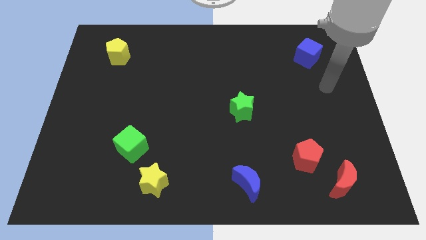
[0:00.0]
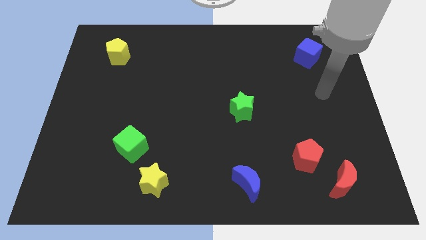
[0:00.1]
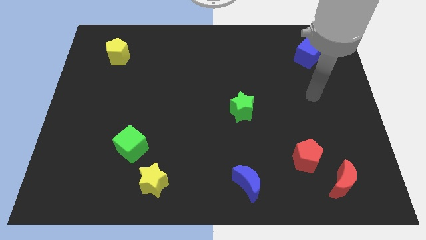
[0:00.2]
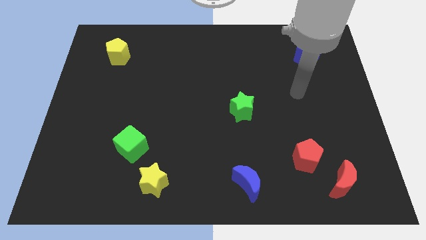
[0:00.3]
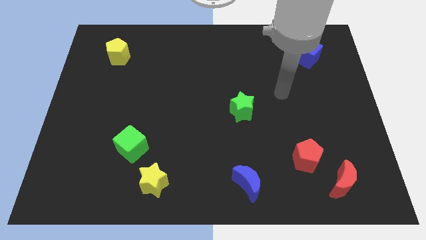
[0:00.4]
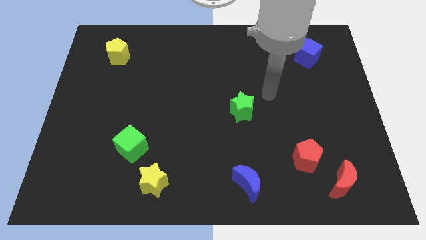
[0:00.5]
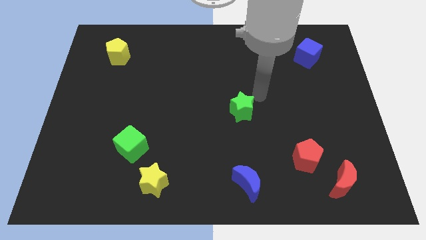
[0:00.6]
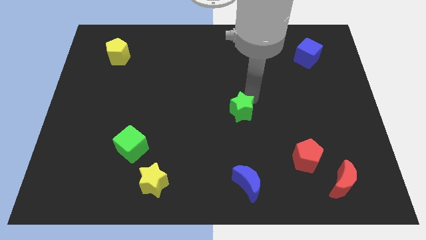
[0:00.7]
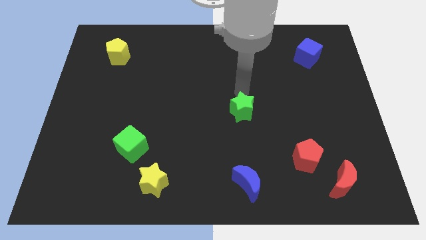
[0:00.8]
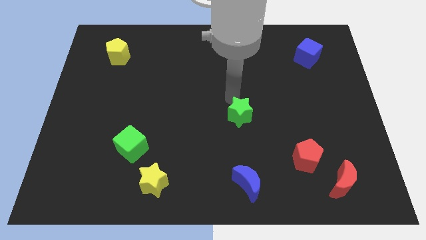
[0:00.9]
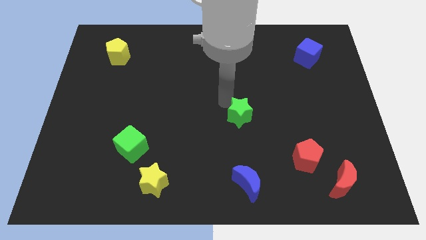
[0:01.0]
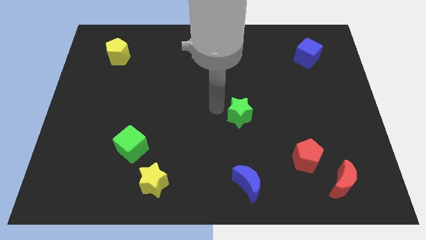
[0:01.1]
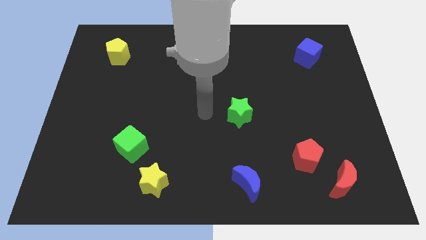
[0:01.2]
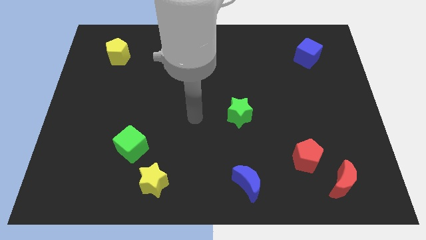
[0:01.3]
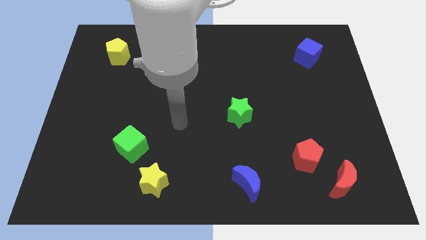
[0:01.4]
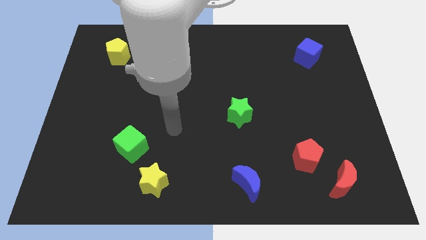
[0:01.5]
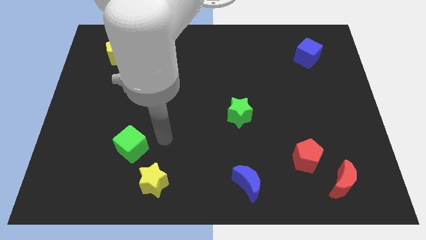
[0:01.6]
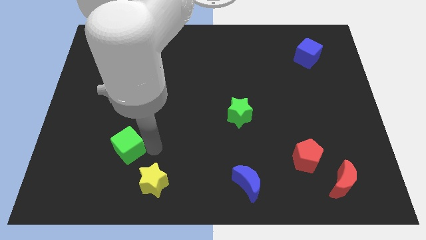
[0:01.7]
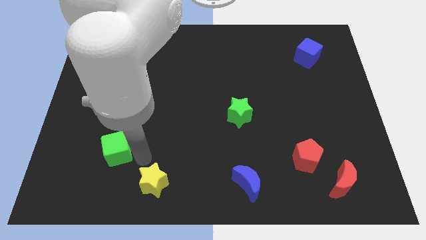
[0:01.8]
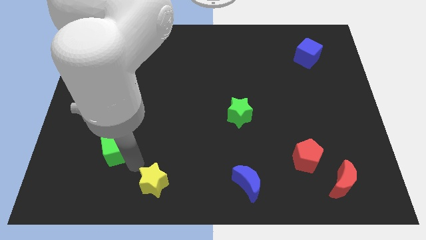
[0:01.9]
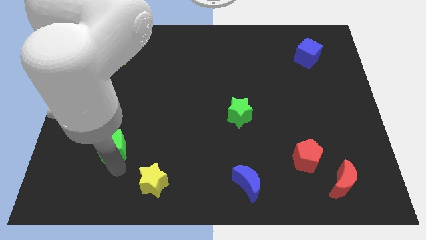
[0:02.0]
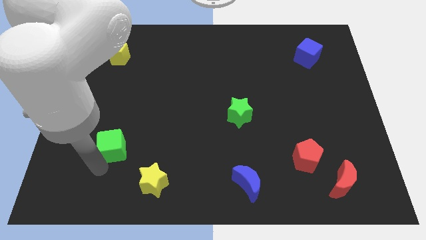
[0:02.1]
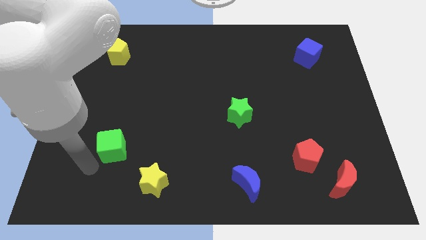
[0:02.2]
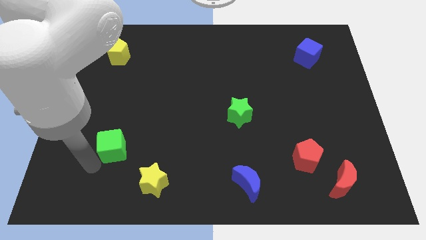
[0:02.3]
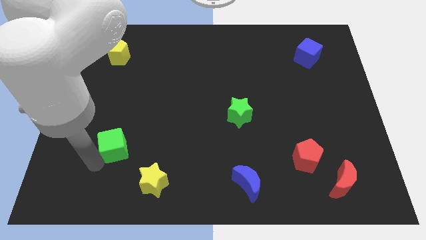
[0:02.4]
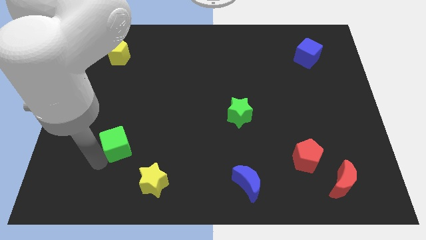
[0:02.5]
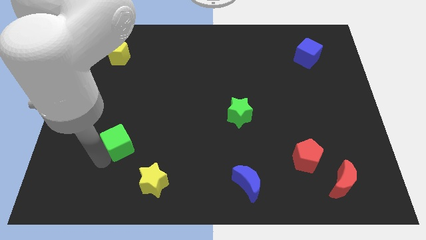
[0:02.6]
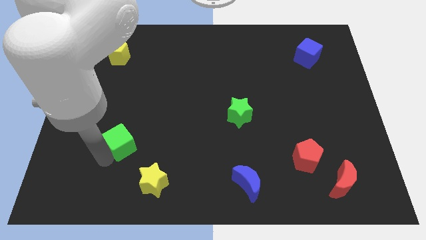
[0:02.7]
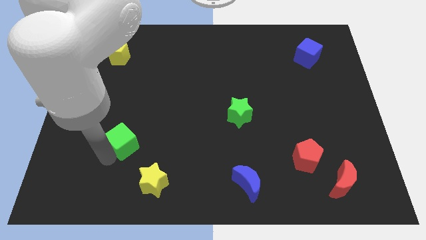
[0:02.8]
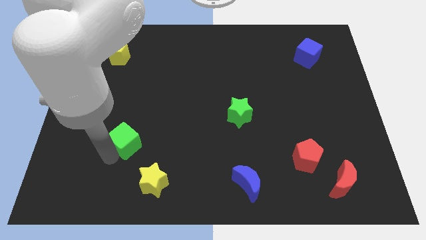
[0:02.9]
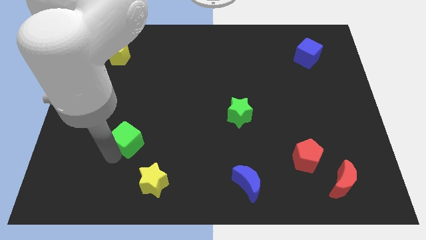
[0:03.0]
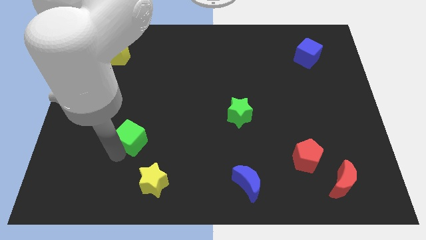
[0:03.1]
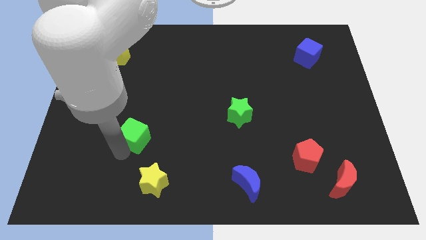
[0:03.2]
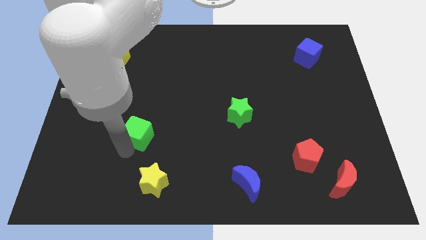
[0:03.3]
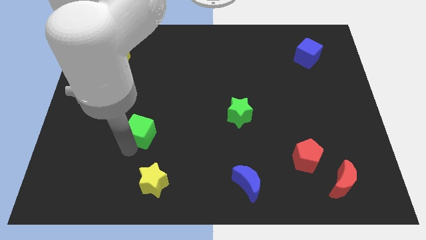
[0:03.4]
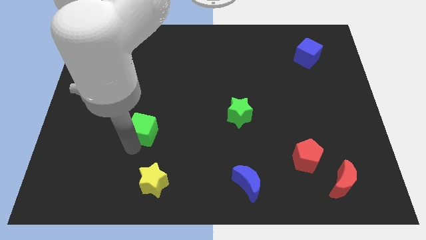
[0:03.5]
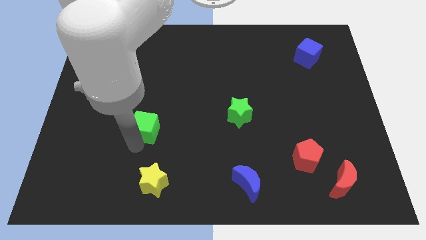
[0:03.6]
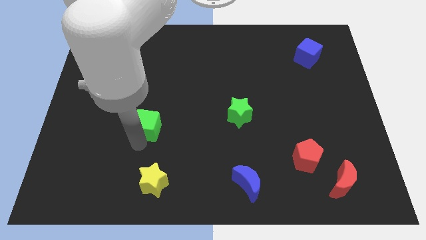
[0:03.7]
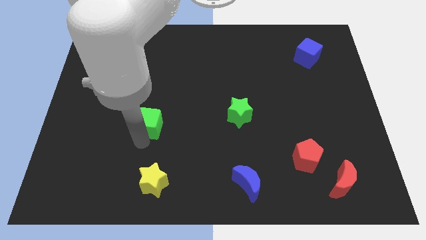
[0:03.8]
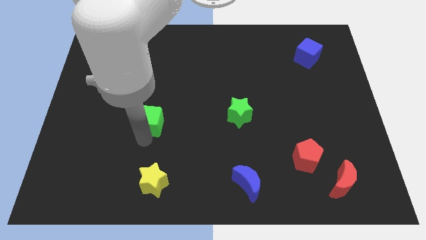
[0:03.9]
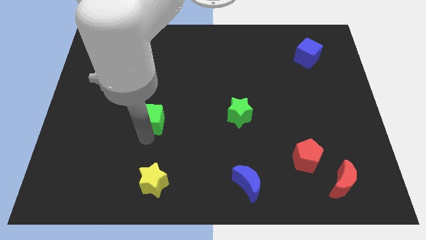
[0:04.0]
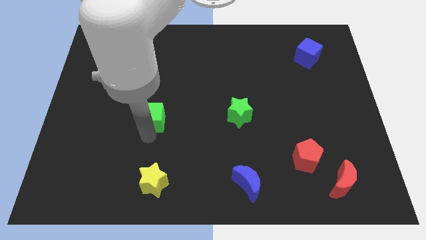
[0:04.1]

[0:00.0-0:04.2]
slide the green cube somewhat up

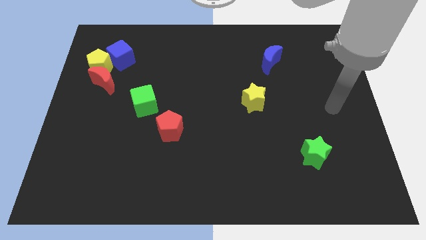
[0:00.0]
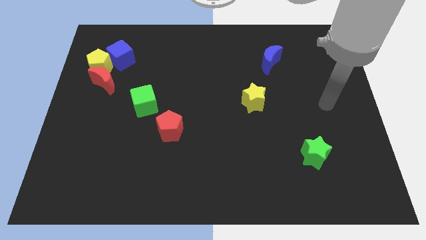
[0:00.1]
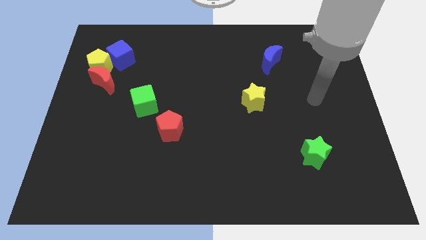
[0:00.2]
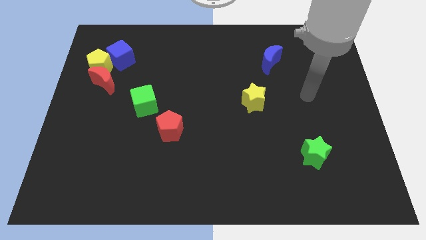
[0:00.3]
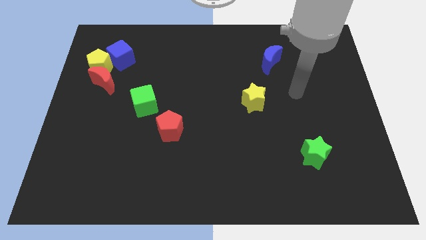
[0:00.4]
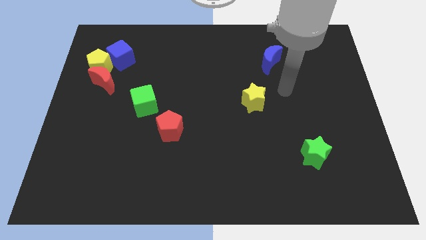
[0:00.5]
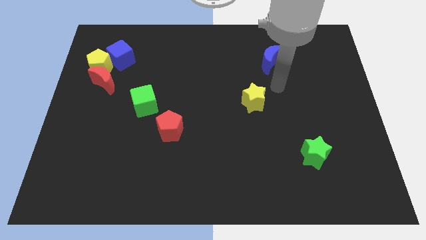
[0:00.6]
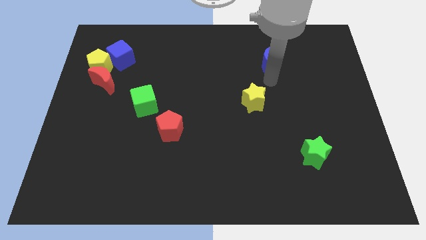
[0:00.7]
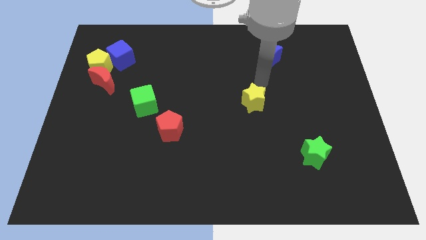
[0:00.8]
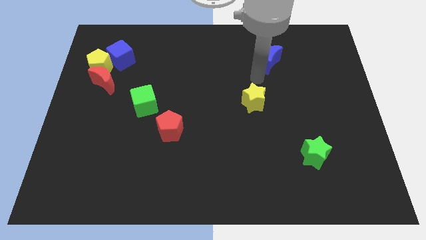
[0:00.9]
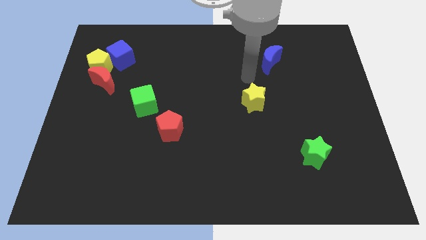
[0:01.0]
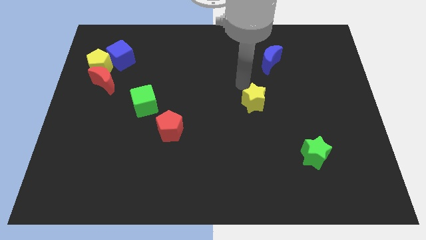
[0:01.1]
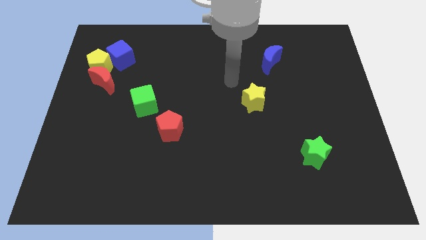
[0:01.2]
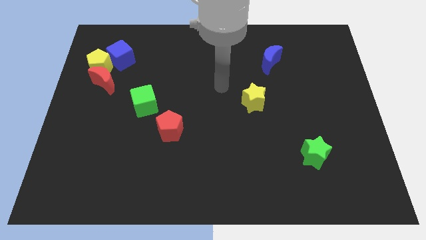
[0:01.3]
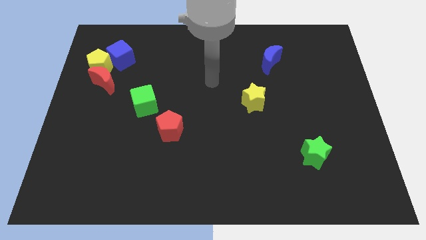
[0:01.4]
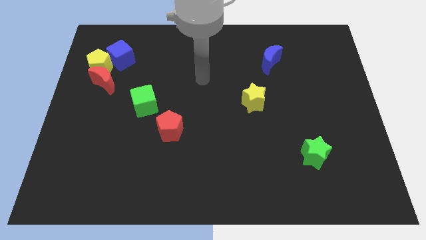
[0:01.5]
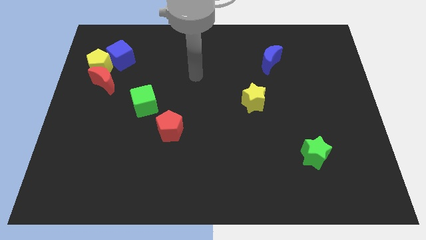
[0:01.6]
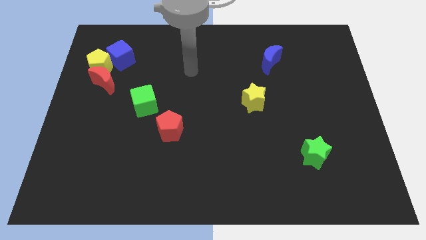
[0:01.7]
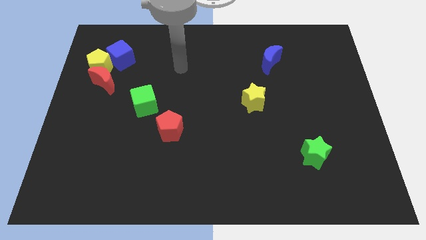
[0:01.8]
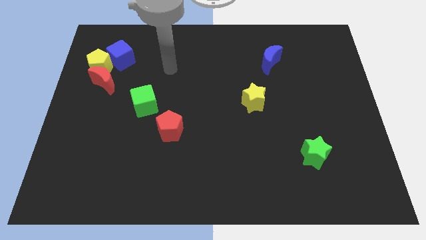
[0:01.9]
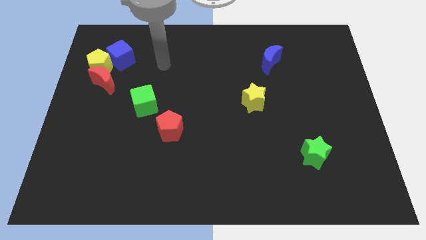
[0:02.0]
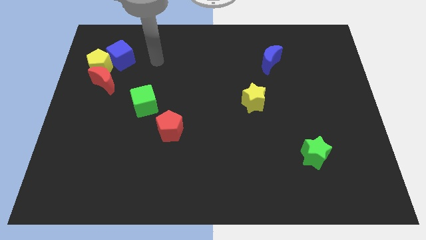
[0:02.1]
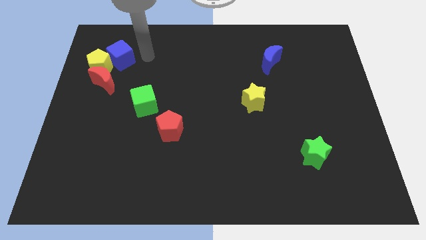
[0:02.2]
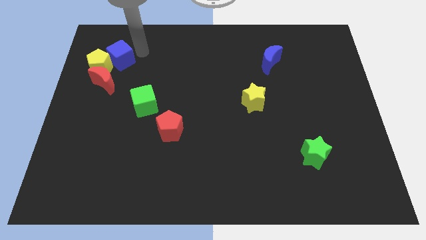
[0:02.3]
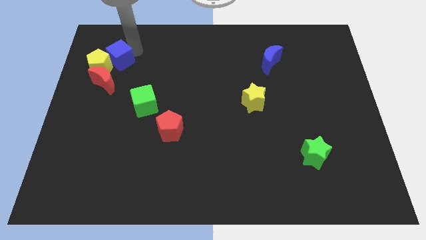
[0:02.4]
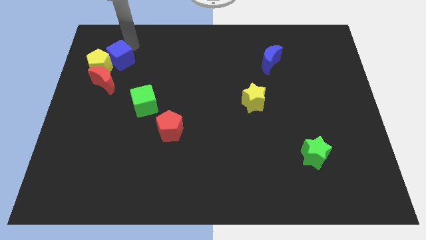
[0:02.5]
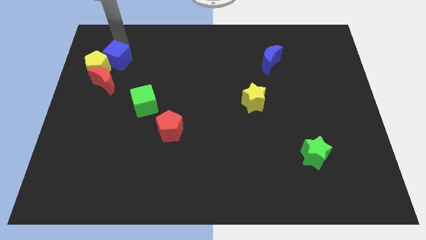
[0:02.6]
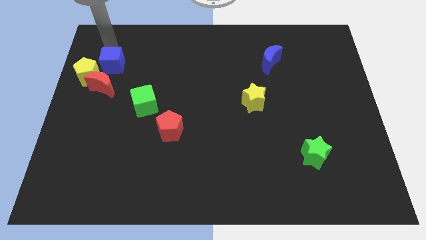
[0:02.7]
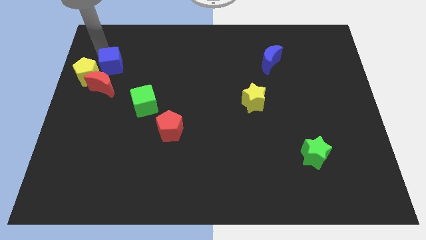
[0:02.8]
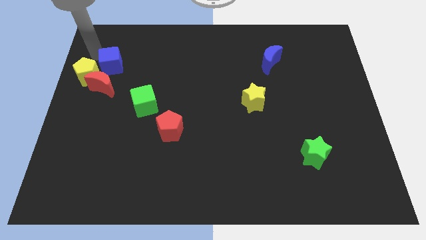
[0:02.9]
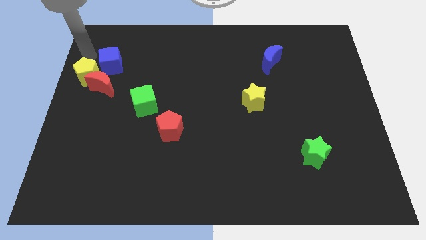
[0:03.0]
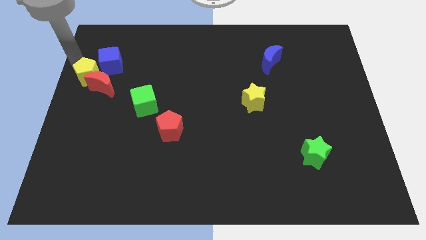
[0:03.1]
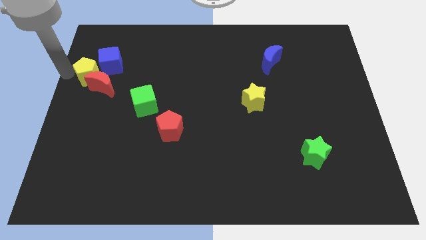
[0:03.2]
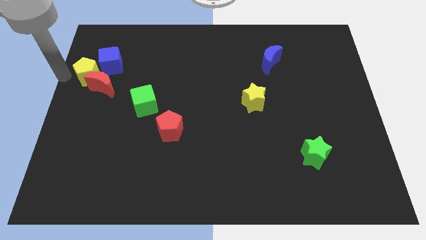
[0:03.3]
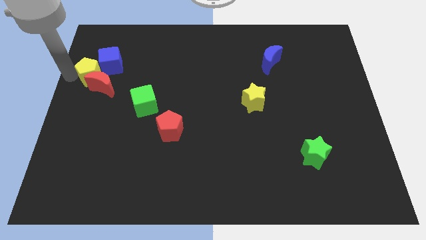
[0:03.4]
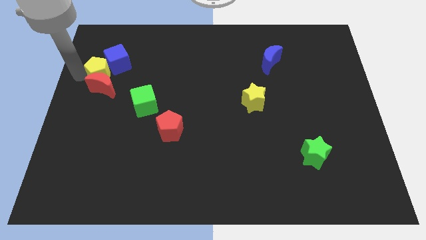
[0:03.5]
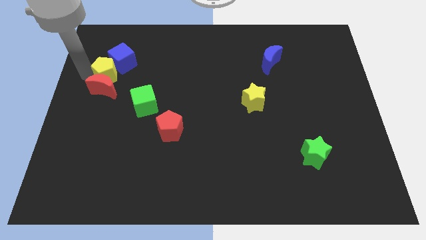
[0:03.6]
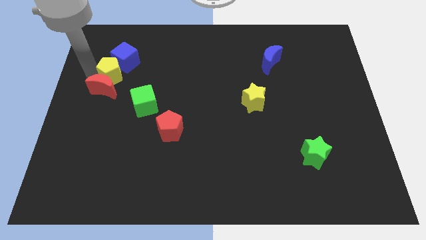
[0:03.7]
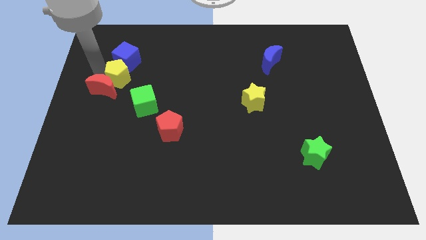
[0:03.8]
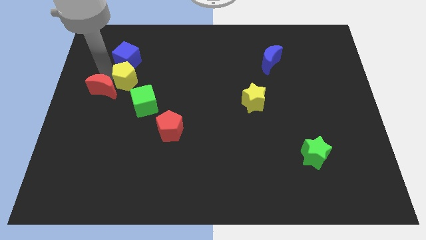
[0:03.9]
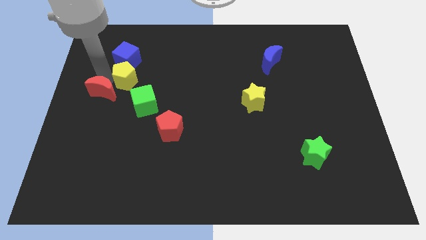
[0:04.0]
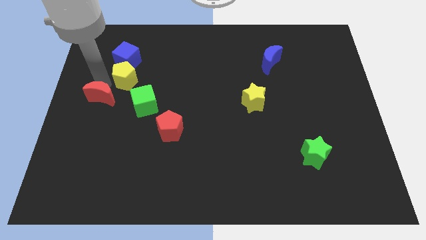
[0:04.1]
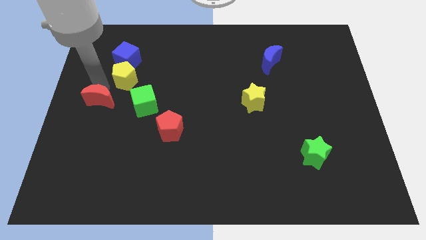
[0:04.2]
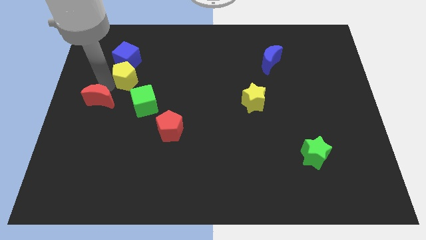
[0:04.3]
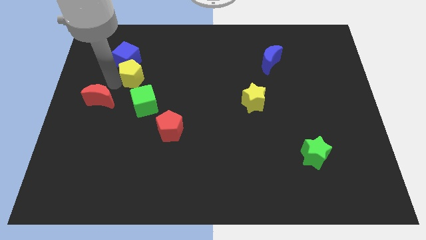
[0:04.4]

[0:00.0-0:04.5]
slide the yellow pentagon slightly to the right
